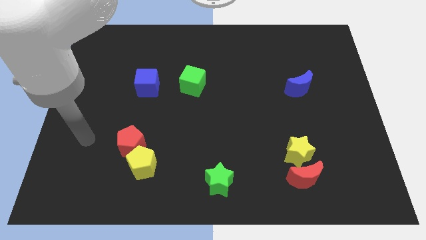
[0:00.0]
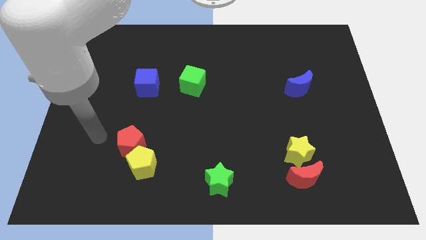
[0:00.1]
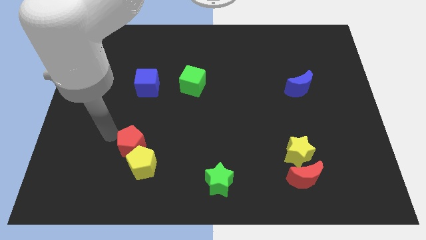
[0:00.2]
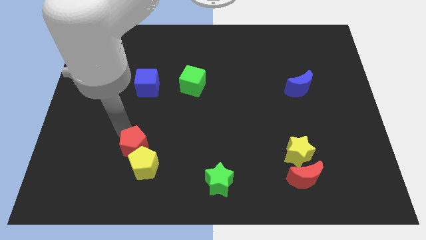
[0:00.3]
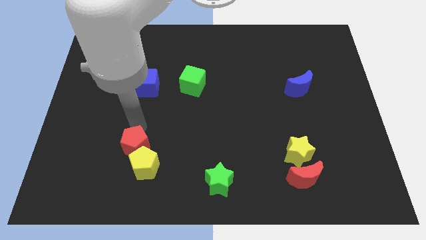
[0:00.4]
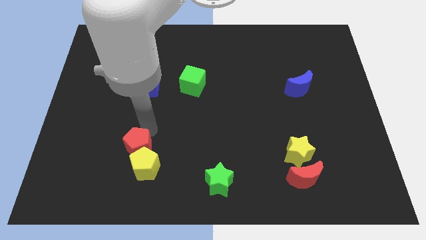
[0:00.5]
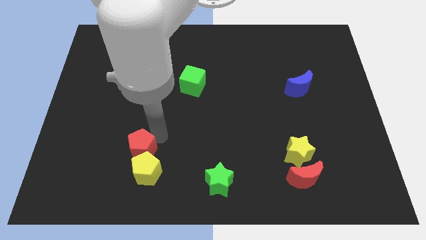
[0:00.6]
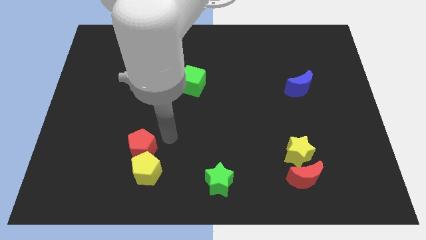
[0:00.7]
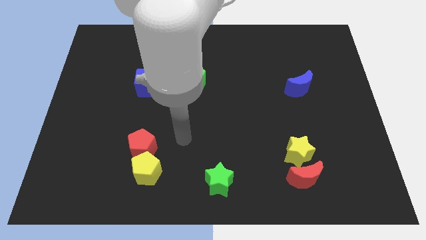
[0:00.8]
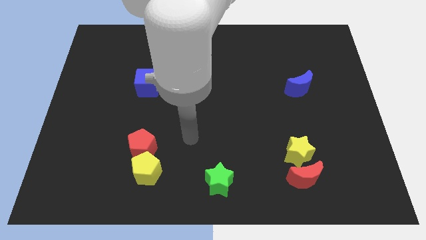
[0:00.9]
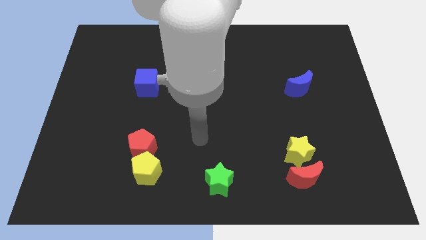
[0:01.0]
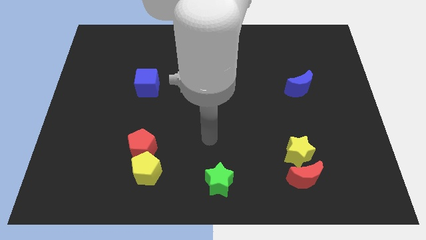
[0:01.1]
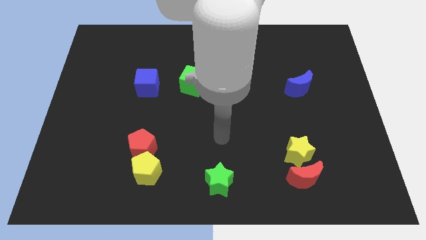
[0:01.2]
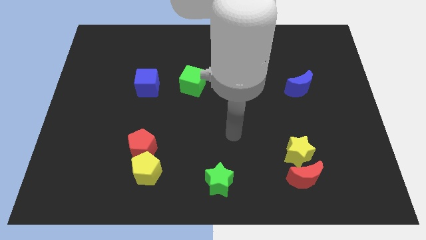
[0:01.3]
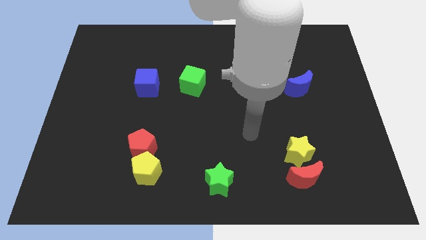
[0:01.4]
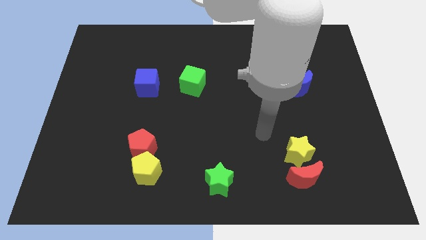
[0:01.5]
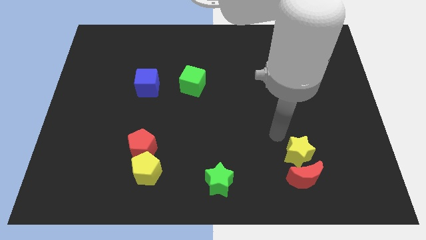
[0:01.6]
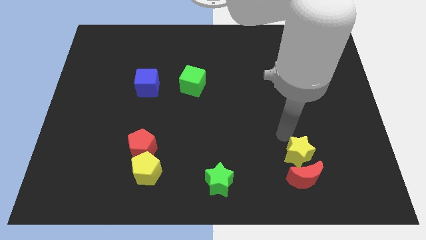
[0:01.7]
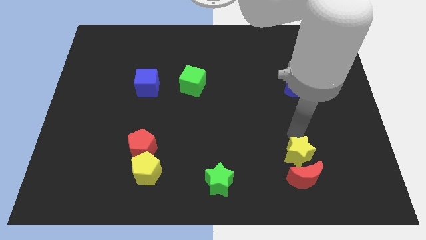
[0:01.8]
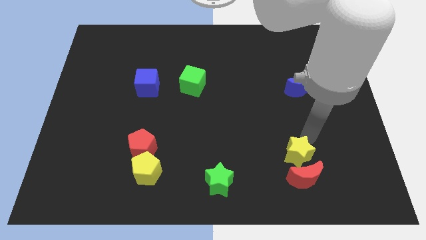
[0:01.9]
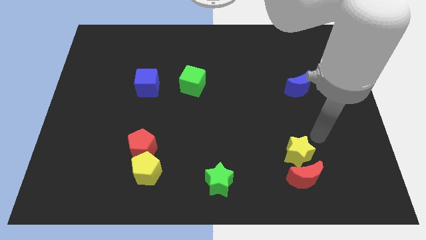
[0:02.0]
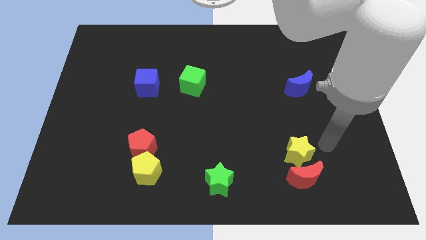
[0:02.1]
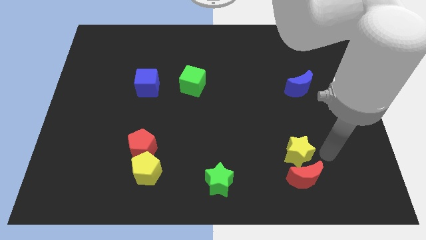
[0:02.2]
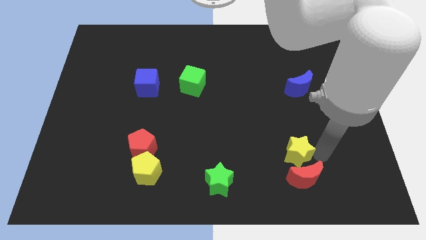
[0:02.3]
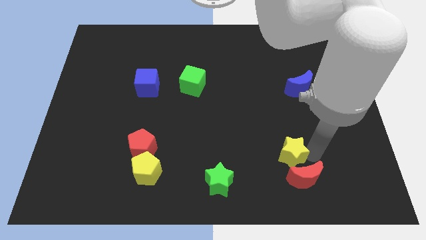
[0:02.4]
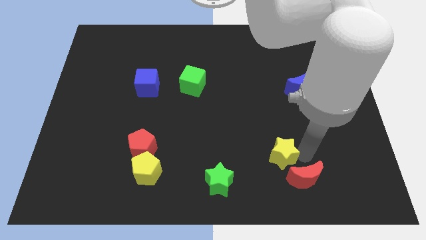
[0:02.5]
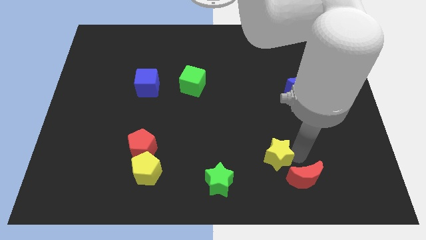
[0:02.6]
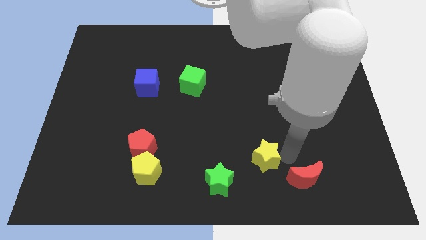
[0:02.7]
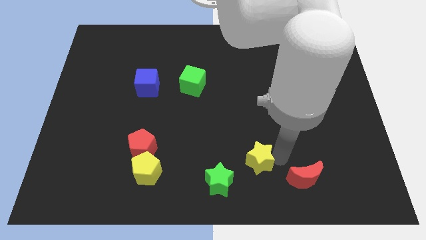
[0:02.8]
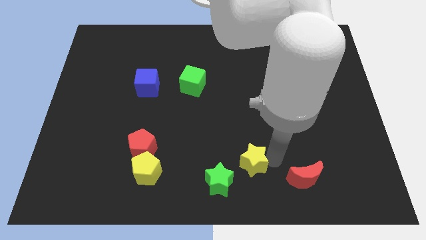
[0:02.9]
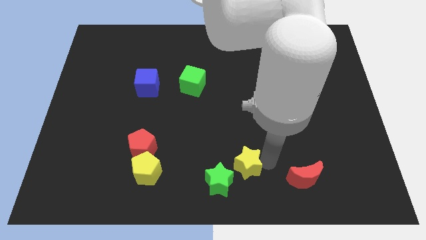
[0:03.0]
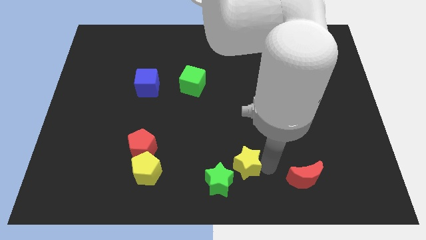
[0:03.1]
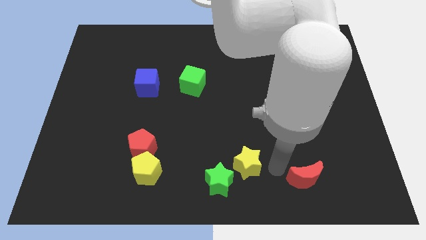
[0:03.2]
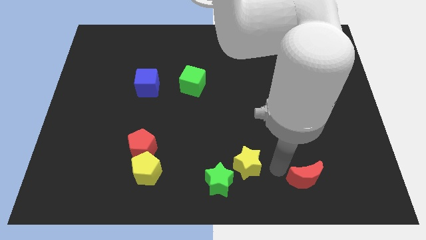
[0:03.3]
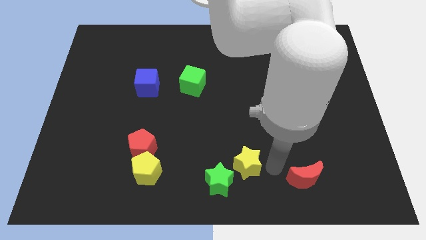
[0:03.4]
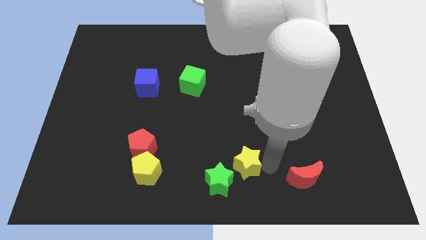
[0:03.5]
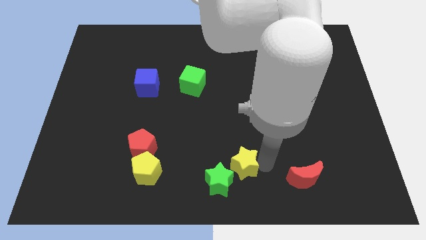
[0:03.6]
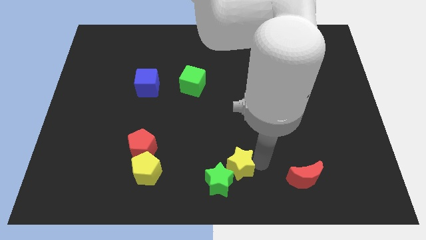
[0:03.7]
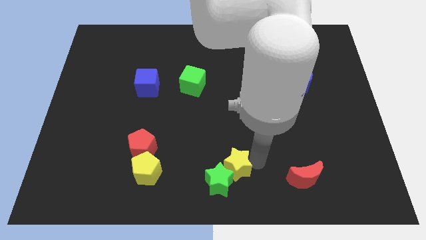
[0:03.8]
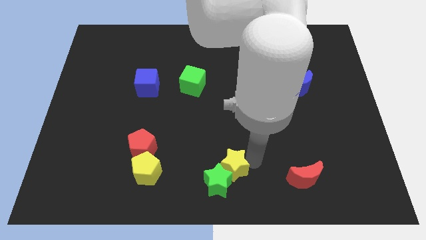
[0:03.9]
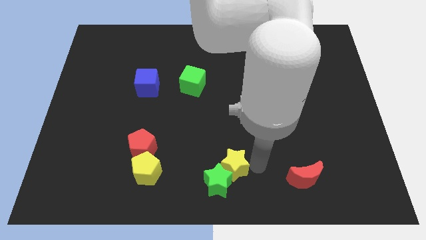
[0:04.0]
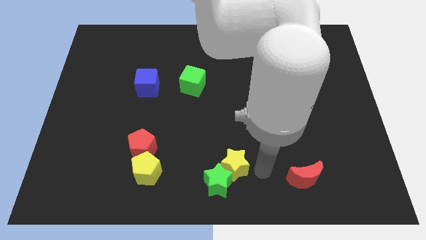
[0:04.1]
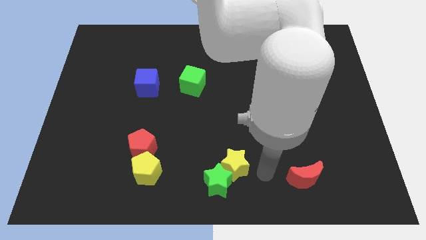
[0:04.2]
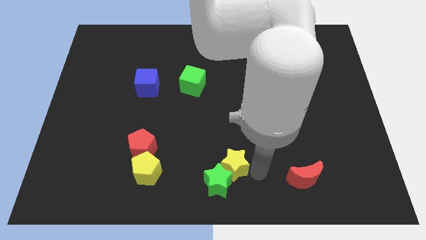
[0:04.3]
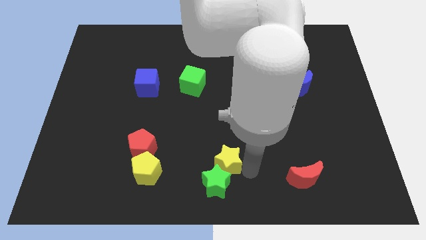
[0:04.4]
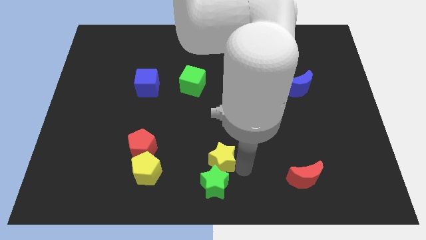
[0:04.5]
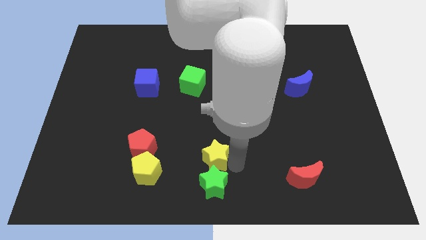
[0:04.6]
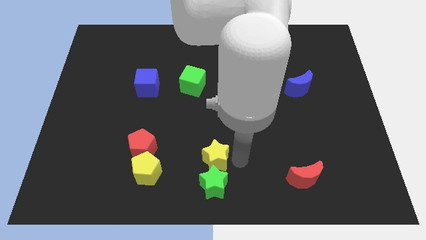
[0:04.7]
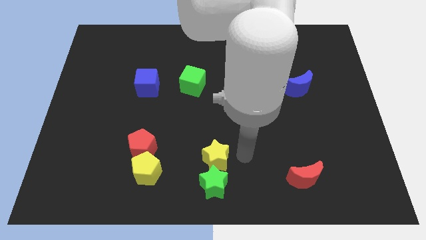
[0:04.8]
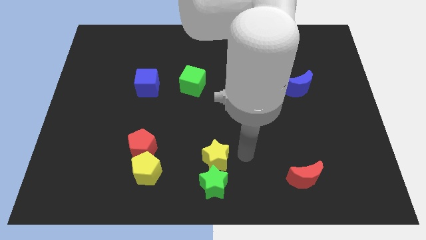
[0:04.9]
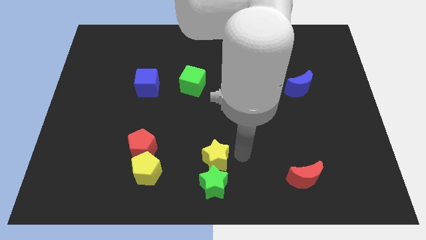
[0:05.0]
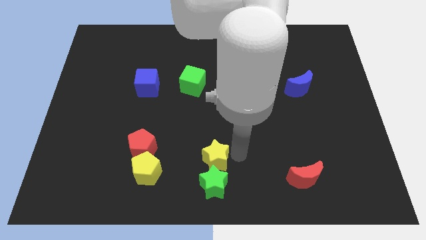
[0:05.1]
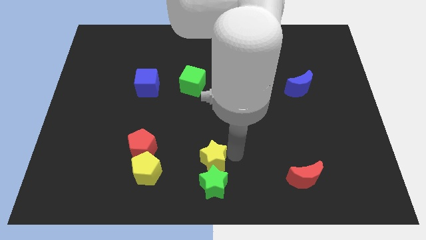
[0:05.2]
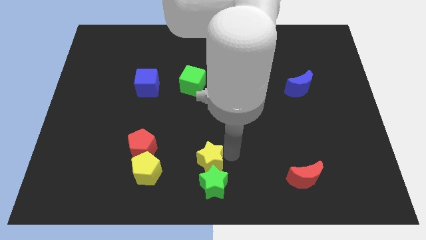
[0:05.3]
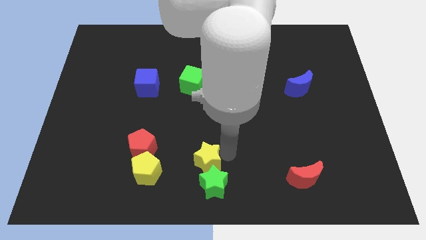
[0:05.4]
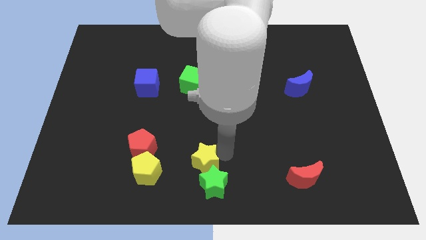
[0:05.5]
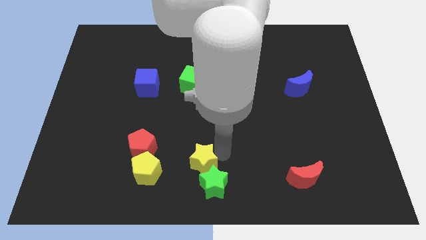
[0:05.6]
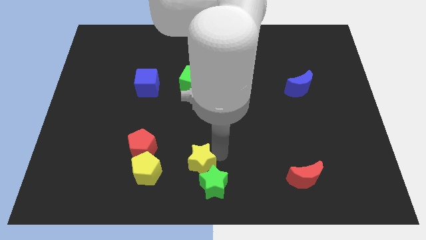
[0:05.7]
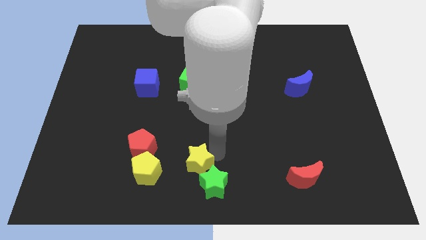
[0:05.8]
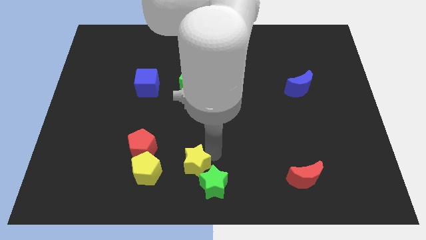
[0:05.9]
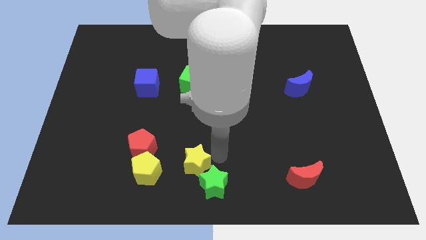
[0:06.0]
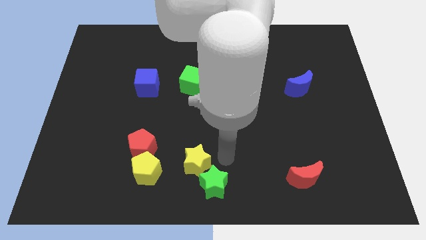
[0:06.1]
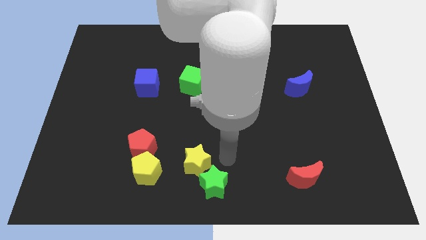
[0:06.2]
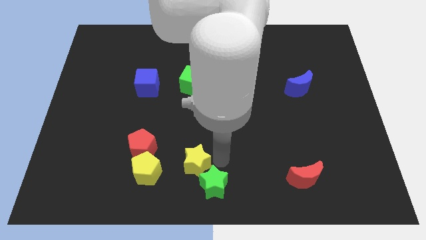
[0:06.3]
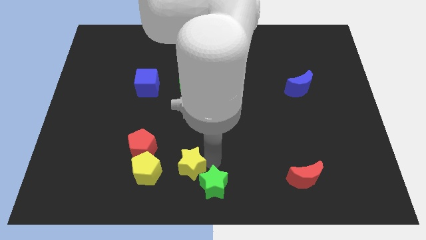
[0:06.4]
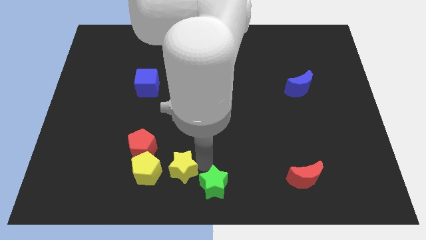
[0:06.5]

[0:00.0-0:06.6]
put the yellow star diagonally down and to the right of the red pentagon

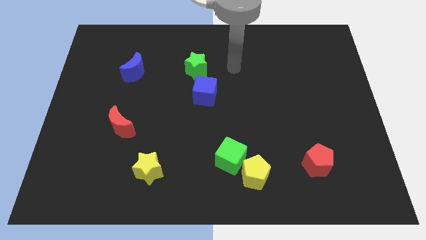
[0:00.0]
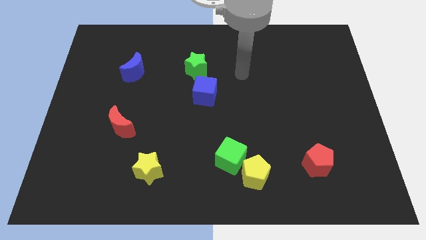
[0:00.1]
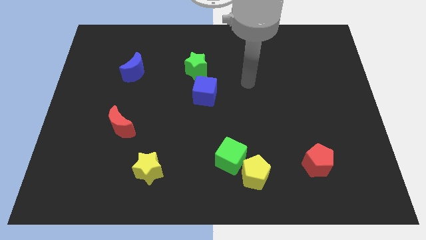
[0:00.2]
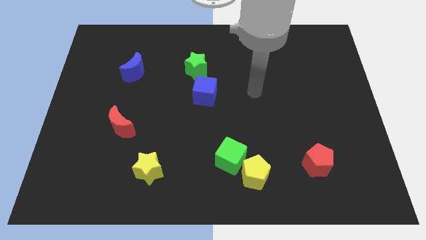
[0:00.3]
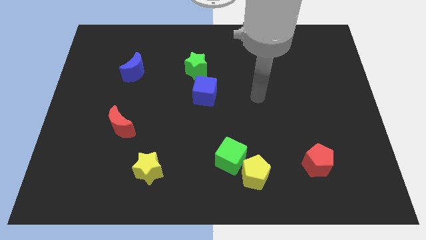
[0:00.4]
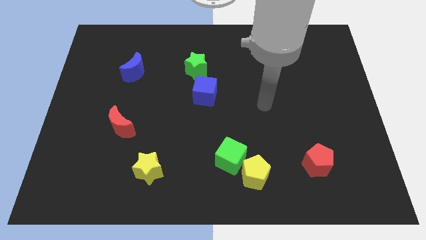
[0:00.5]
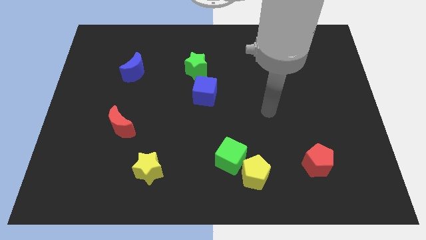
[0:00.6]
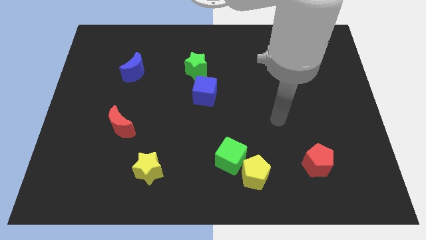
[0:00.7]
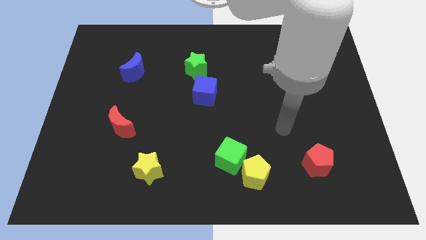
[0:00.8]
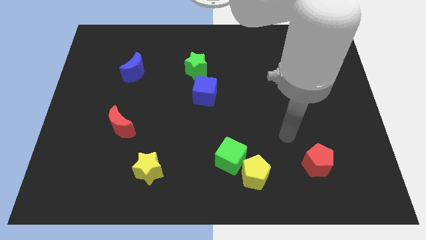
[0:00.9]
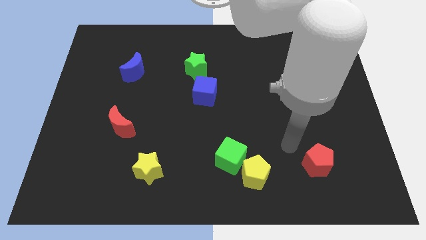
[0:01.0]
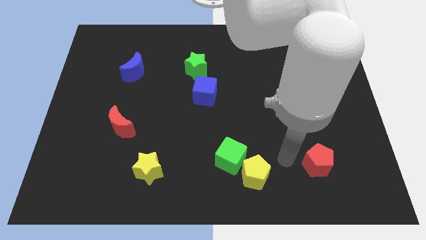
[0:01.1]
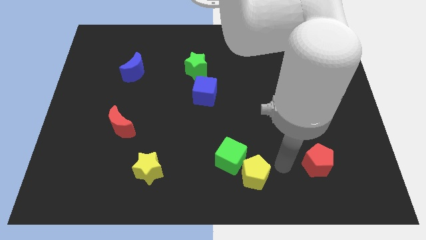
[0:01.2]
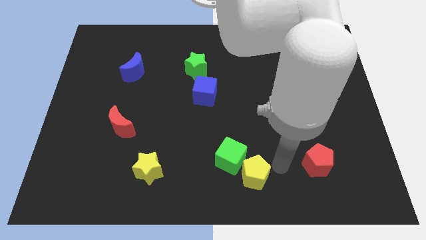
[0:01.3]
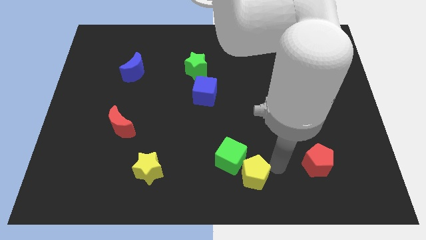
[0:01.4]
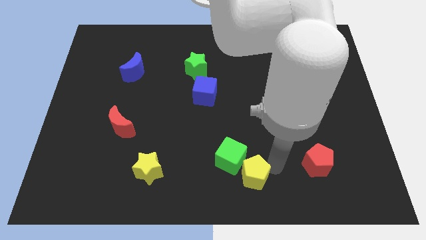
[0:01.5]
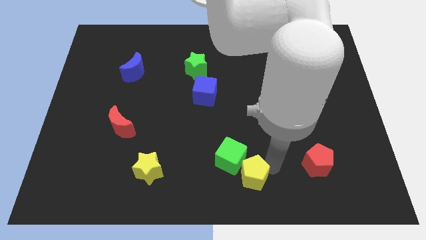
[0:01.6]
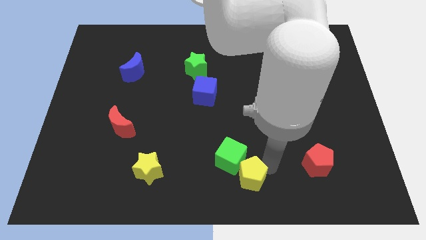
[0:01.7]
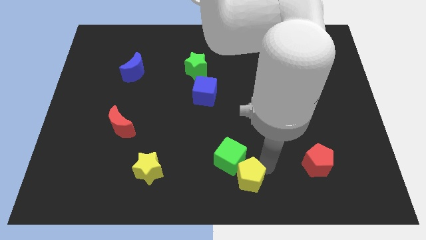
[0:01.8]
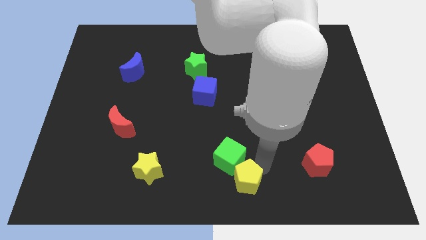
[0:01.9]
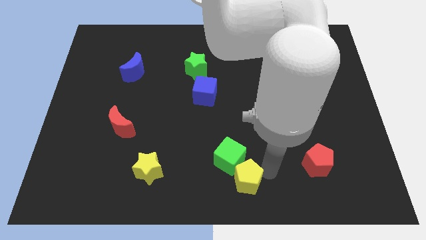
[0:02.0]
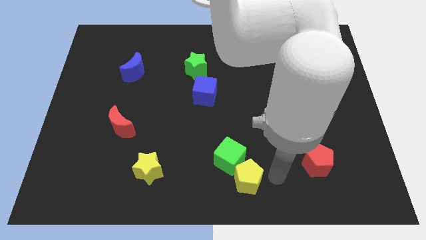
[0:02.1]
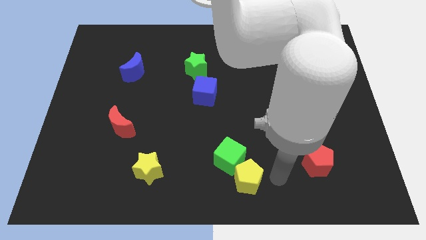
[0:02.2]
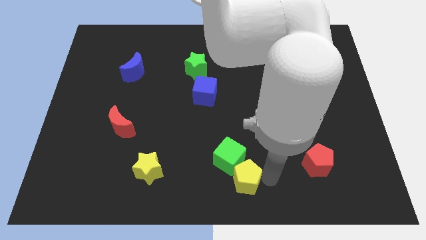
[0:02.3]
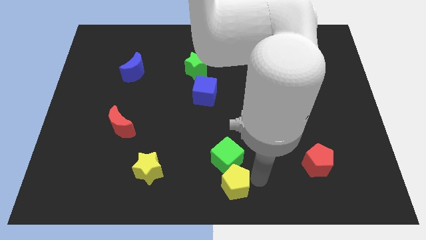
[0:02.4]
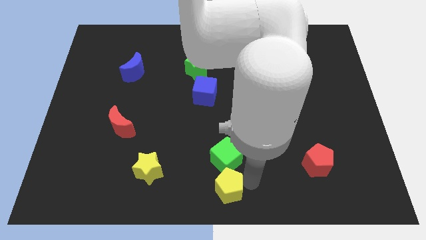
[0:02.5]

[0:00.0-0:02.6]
slide the yellow pentagon diagonally down and to the left of the green cube
